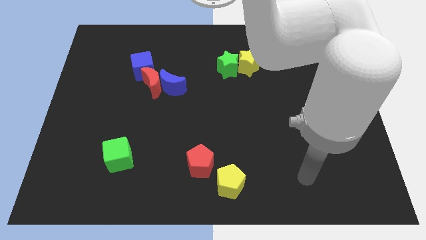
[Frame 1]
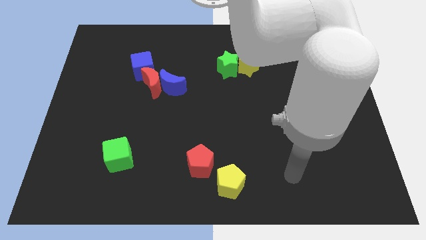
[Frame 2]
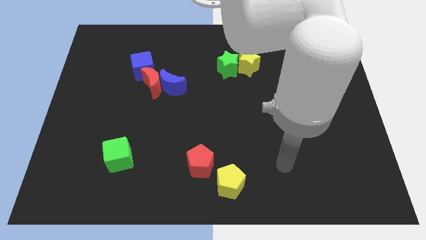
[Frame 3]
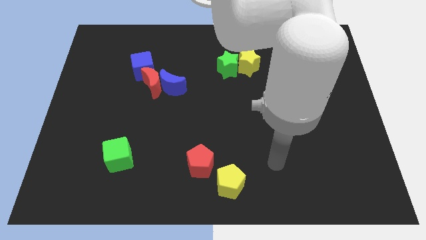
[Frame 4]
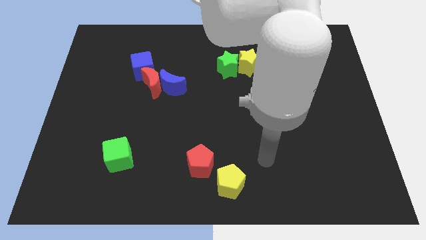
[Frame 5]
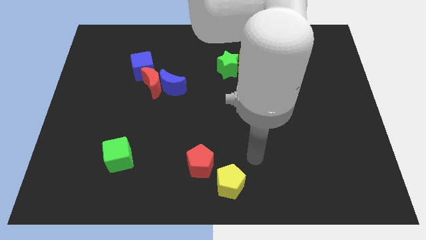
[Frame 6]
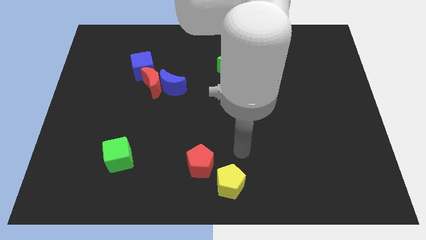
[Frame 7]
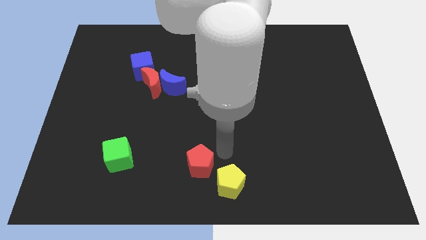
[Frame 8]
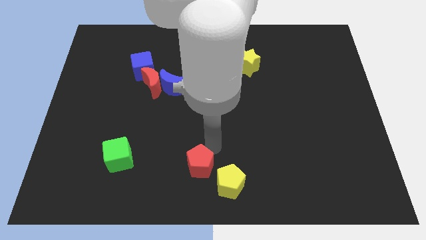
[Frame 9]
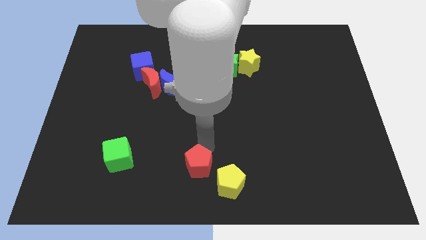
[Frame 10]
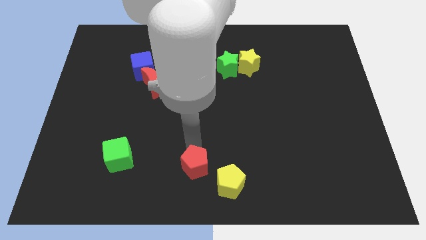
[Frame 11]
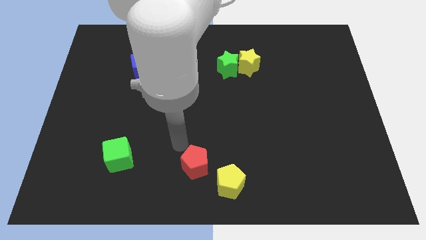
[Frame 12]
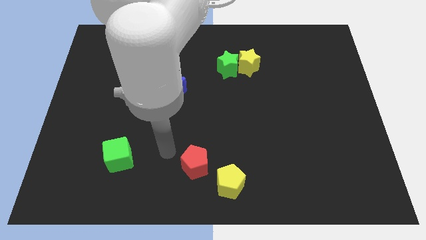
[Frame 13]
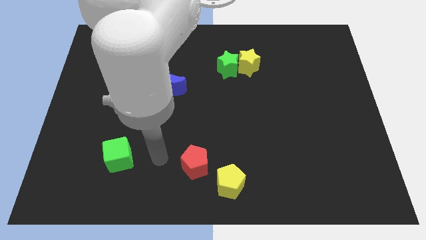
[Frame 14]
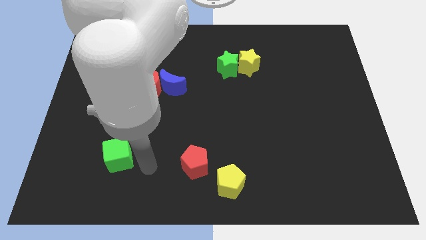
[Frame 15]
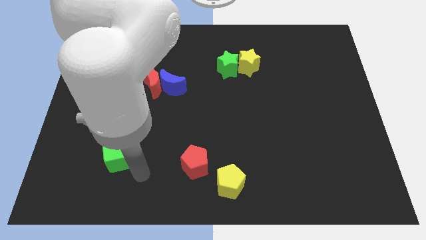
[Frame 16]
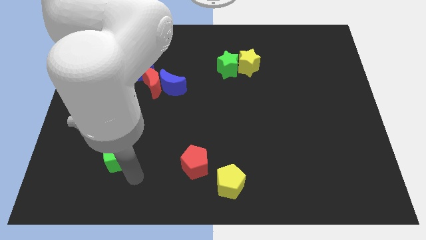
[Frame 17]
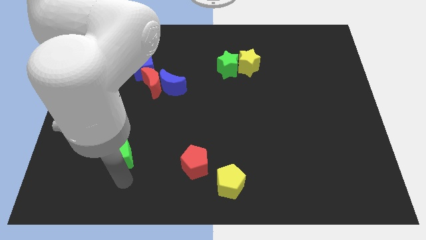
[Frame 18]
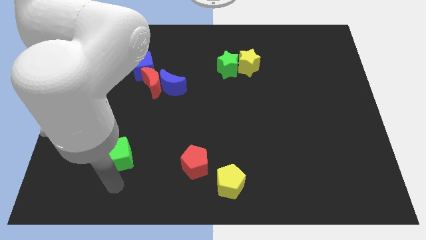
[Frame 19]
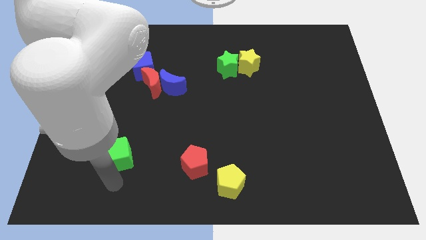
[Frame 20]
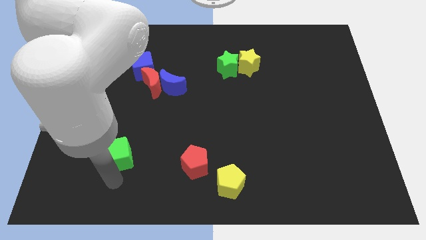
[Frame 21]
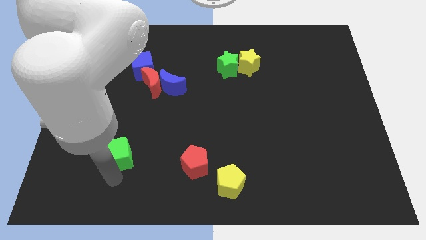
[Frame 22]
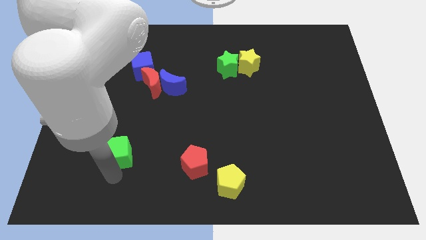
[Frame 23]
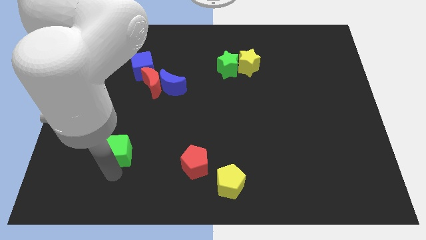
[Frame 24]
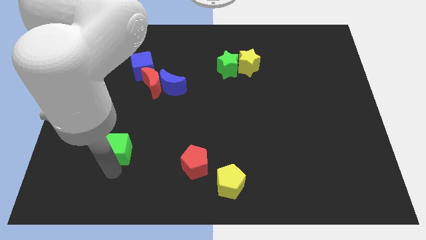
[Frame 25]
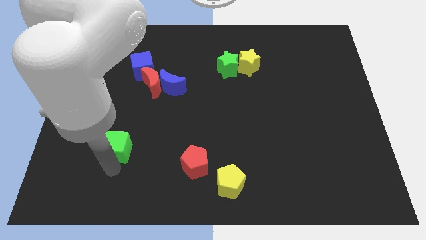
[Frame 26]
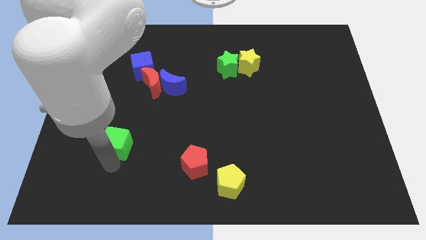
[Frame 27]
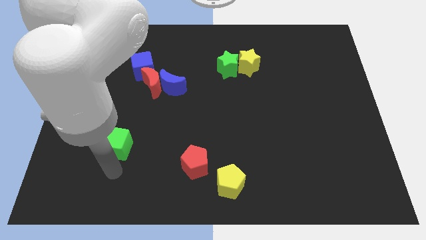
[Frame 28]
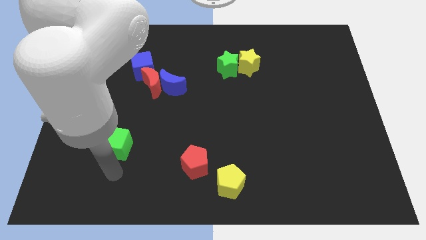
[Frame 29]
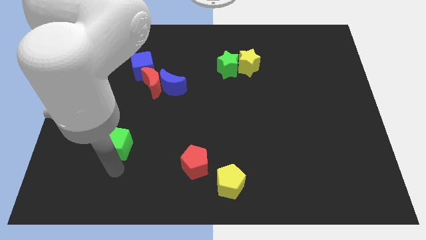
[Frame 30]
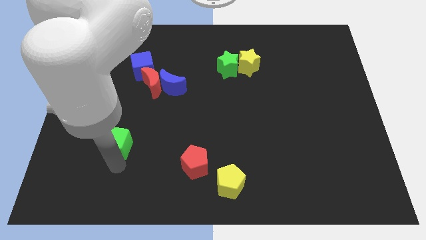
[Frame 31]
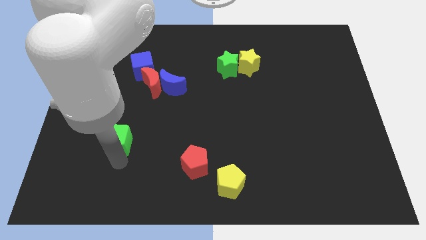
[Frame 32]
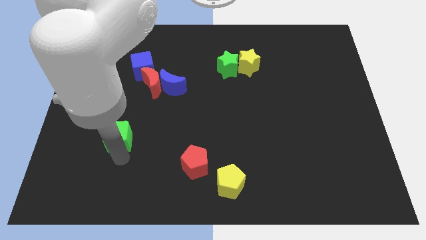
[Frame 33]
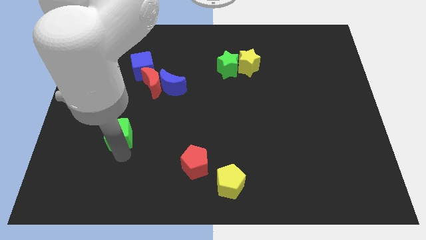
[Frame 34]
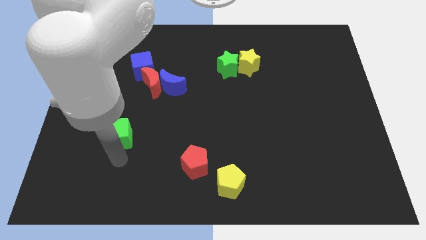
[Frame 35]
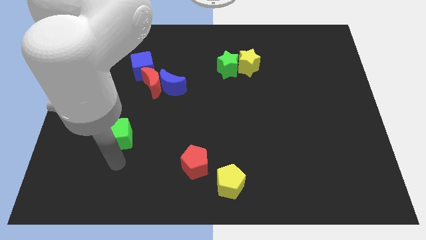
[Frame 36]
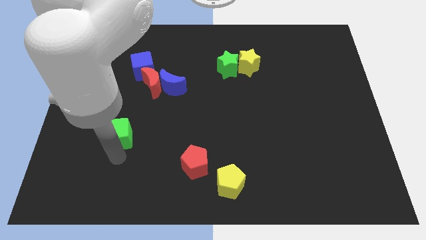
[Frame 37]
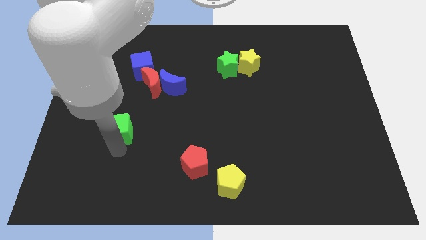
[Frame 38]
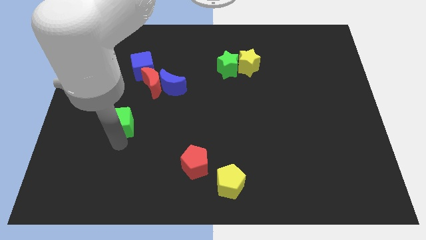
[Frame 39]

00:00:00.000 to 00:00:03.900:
slide the green cube up a little bit

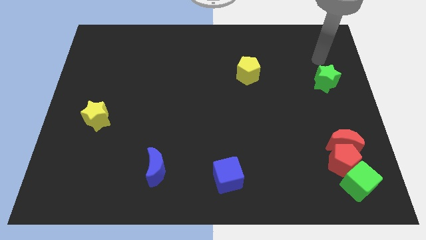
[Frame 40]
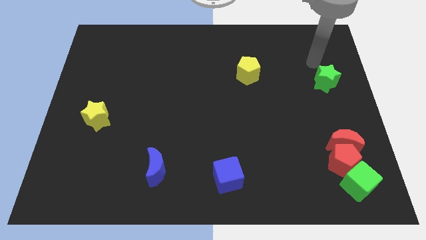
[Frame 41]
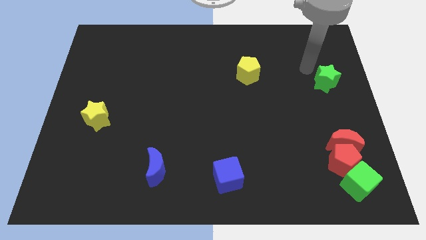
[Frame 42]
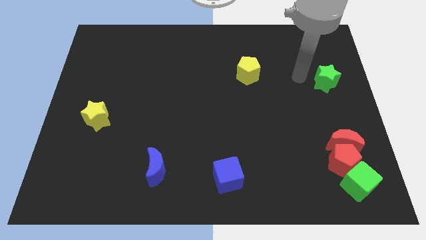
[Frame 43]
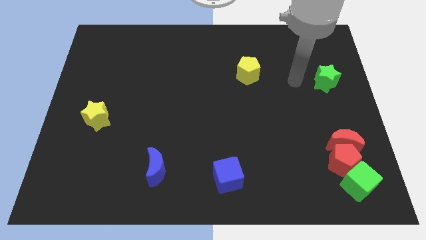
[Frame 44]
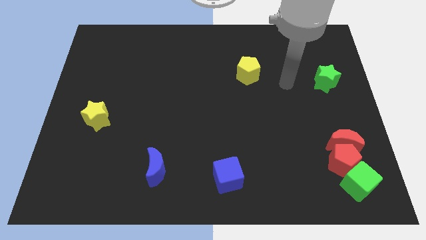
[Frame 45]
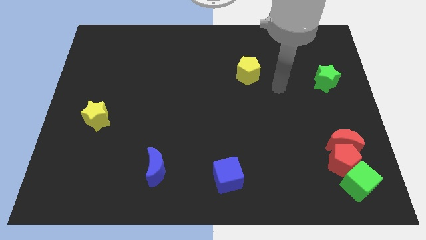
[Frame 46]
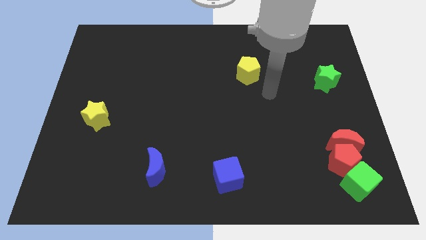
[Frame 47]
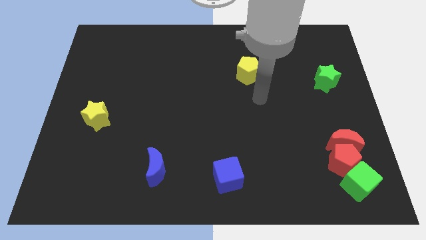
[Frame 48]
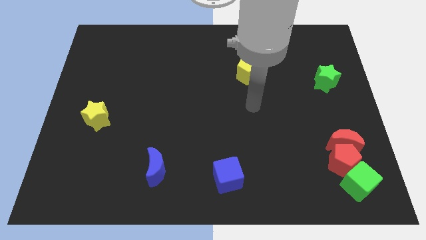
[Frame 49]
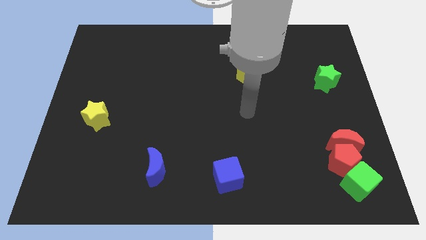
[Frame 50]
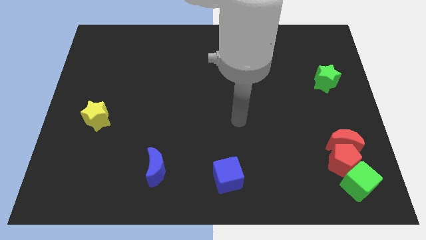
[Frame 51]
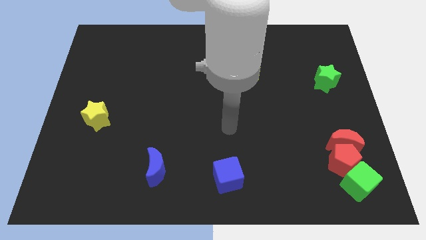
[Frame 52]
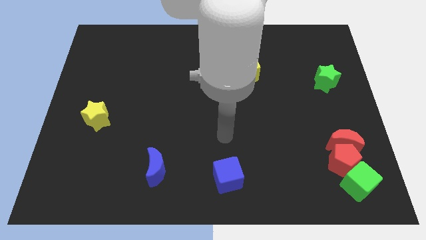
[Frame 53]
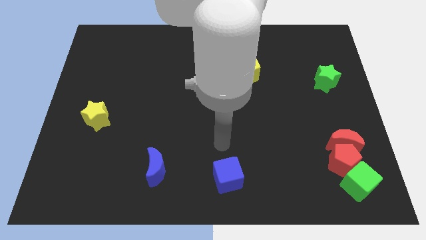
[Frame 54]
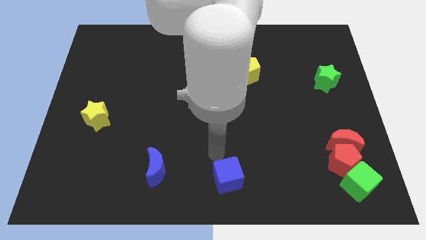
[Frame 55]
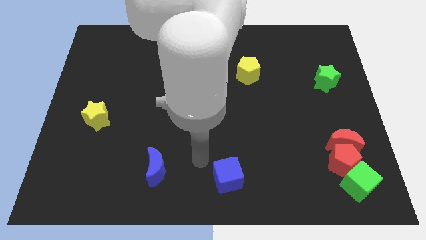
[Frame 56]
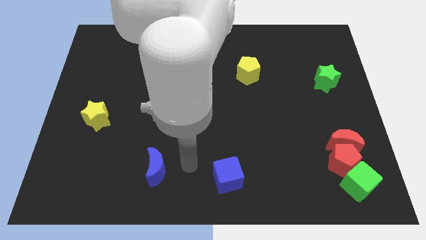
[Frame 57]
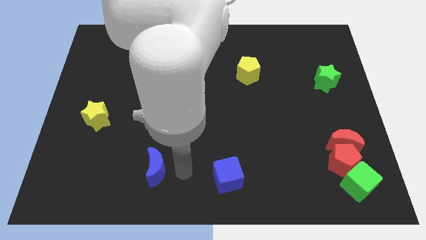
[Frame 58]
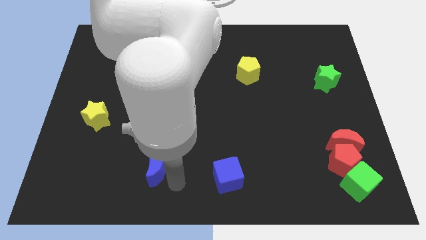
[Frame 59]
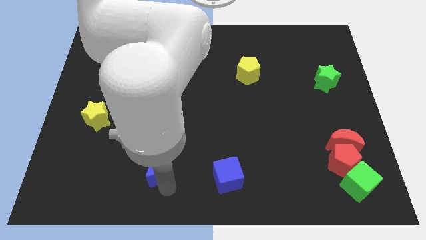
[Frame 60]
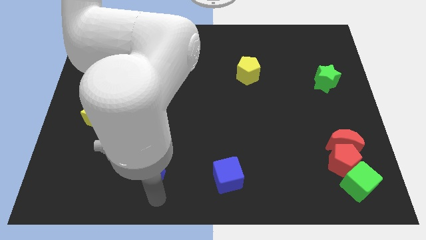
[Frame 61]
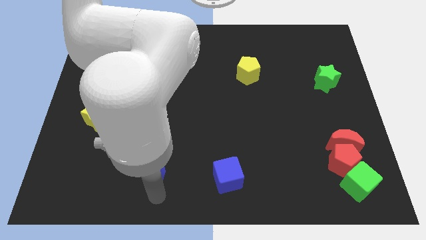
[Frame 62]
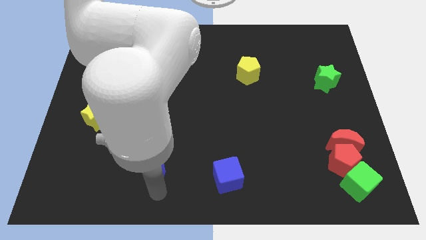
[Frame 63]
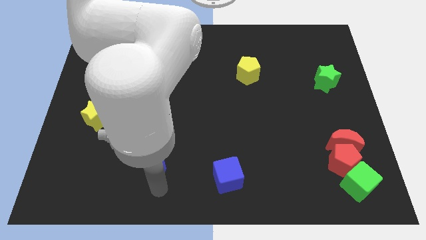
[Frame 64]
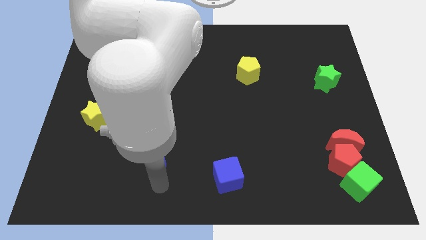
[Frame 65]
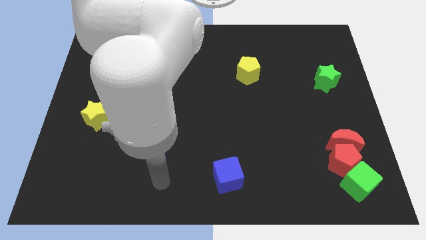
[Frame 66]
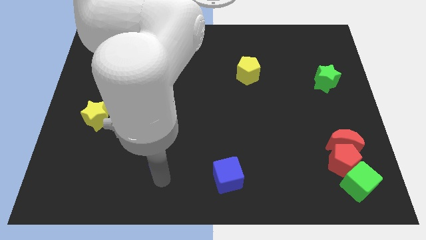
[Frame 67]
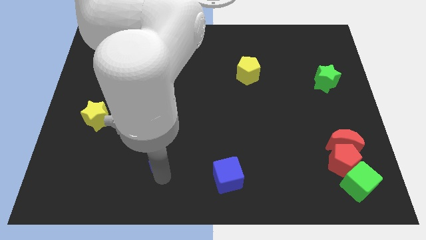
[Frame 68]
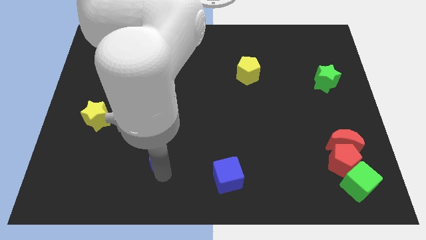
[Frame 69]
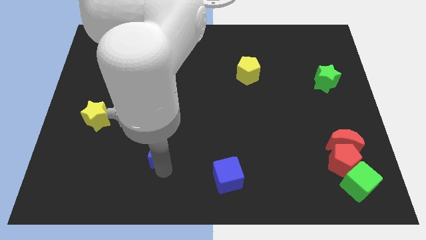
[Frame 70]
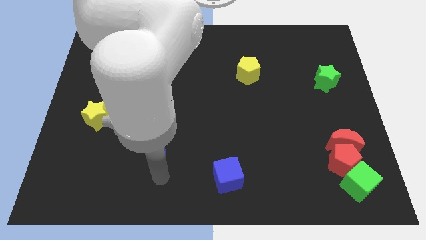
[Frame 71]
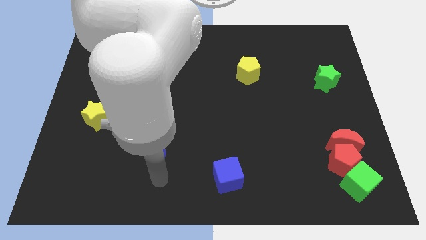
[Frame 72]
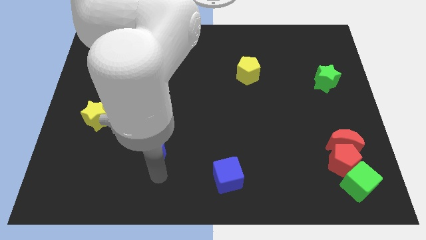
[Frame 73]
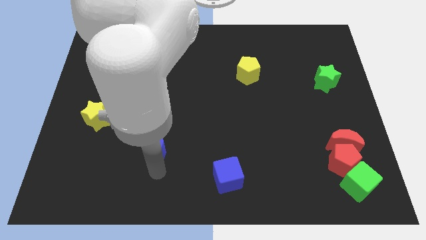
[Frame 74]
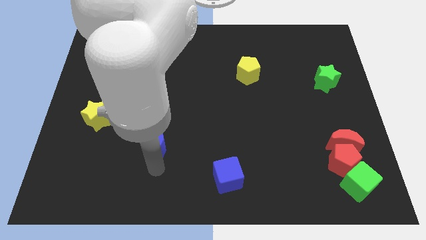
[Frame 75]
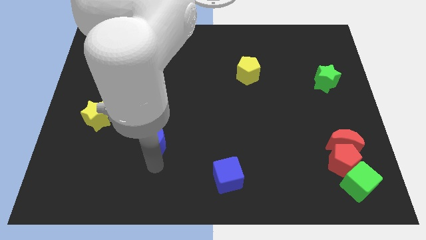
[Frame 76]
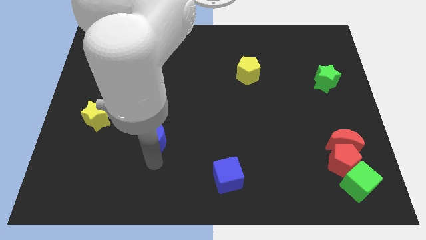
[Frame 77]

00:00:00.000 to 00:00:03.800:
slightly slide the blue moon up

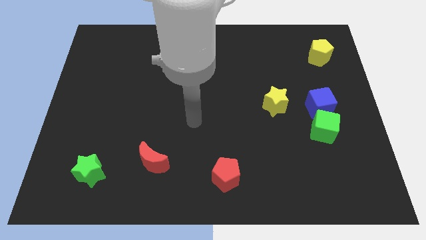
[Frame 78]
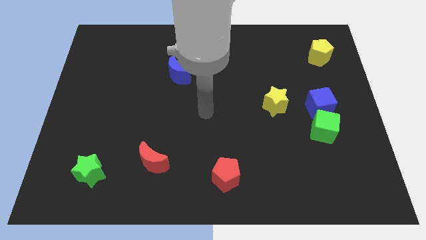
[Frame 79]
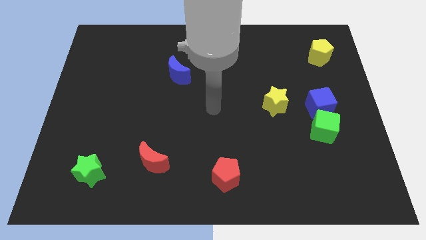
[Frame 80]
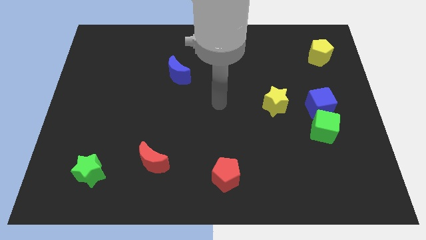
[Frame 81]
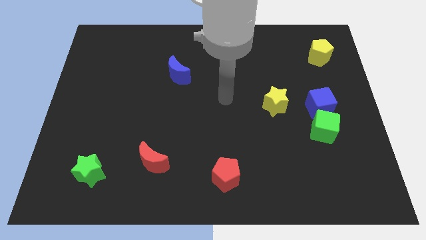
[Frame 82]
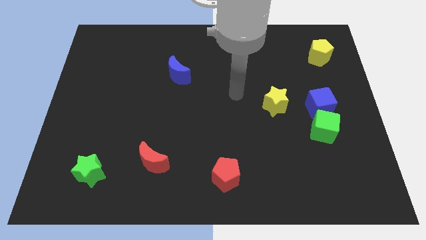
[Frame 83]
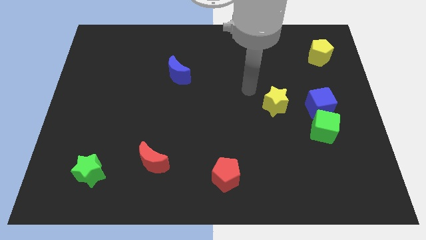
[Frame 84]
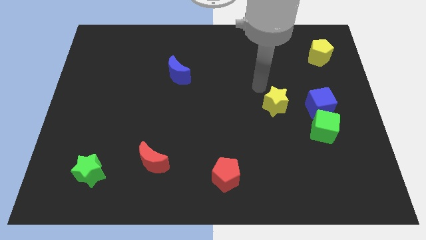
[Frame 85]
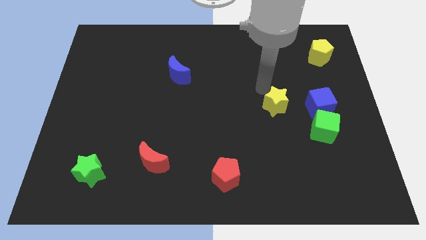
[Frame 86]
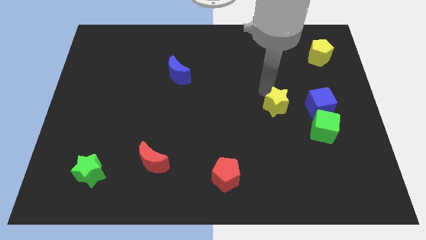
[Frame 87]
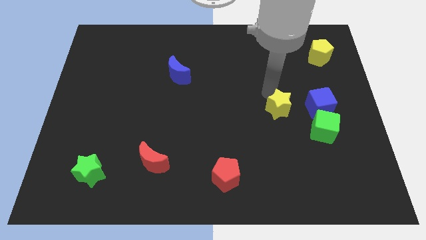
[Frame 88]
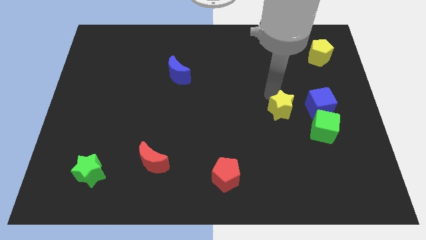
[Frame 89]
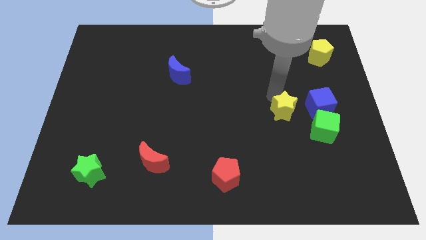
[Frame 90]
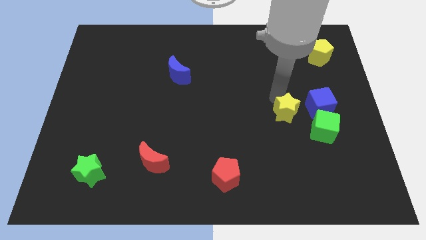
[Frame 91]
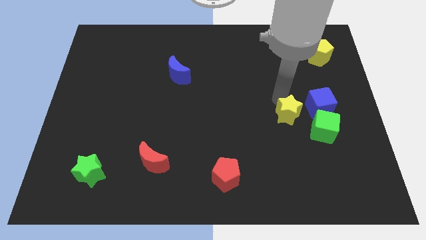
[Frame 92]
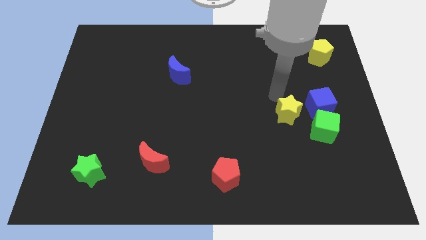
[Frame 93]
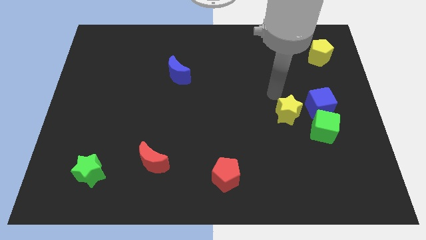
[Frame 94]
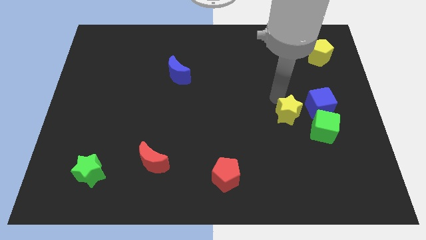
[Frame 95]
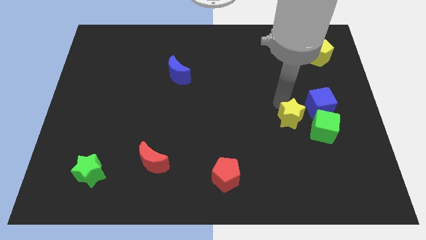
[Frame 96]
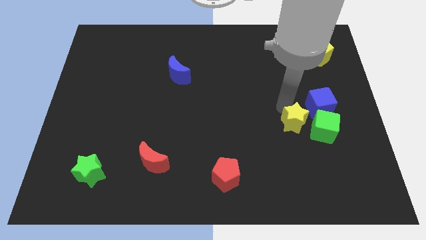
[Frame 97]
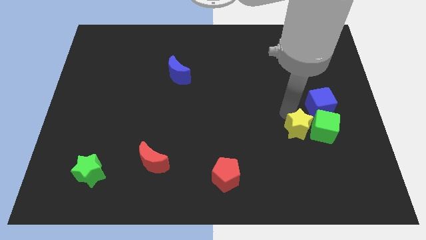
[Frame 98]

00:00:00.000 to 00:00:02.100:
push the yellow star downwards and then to the right somewhat
